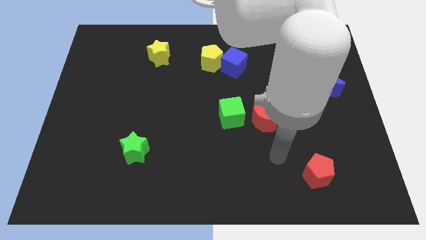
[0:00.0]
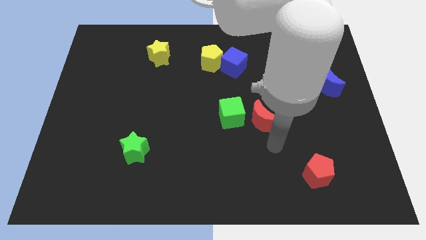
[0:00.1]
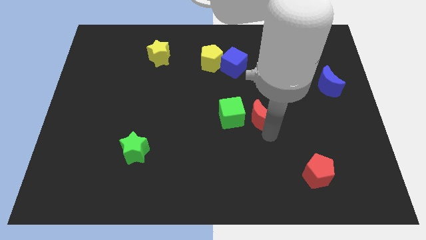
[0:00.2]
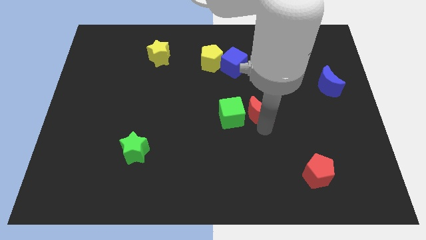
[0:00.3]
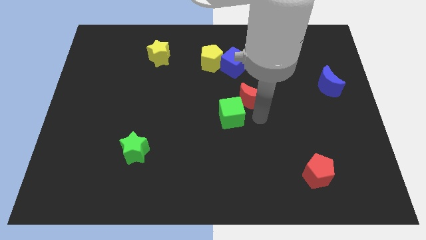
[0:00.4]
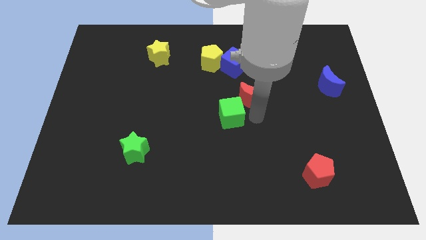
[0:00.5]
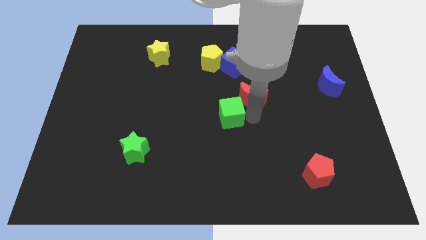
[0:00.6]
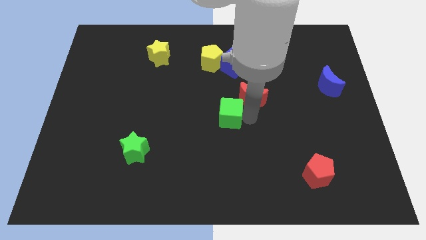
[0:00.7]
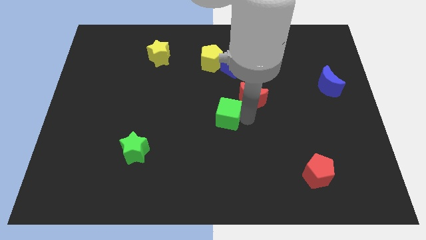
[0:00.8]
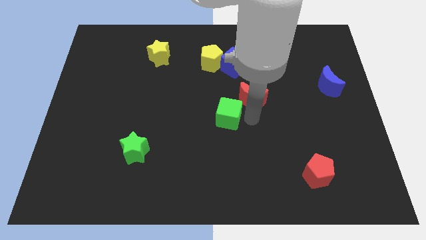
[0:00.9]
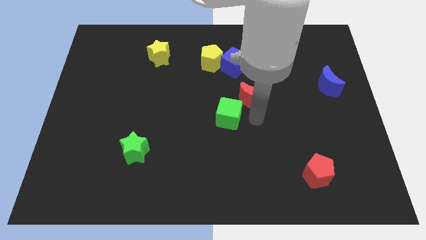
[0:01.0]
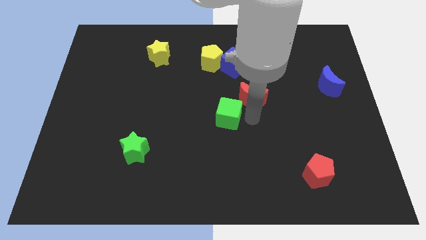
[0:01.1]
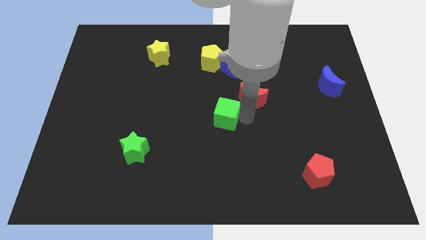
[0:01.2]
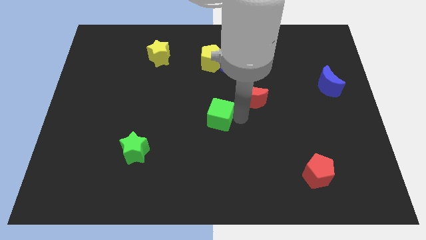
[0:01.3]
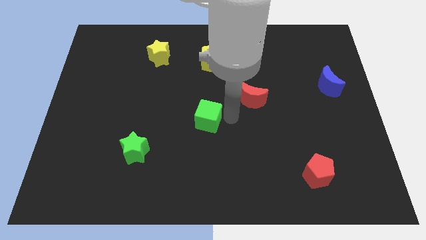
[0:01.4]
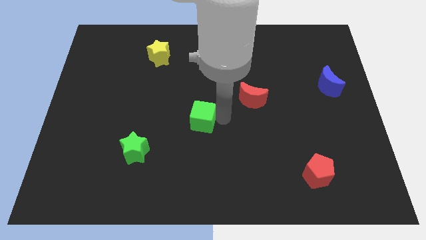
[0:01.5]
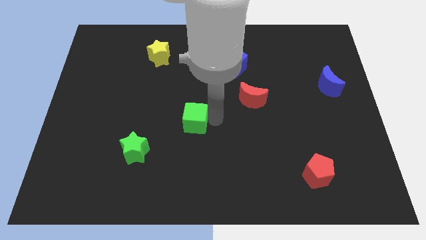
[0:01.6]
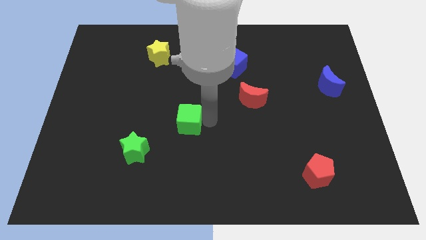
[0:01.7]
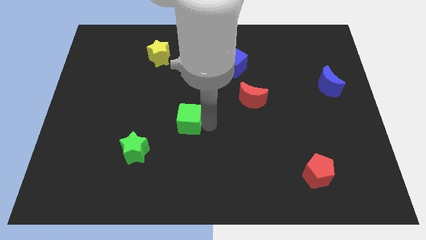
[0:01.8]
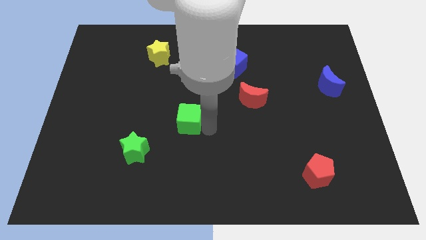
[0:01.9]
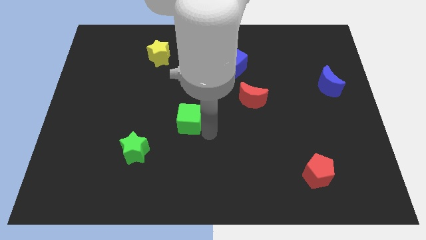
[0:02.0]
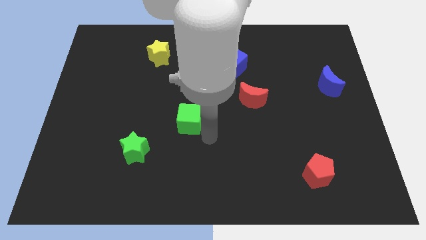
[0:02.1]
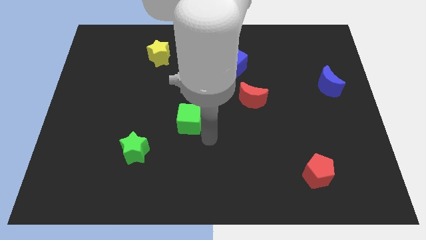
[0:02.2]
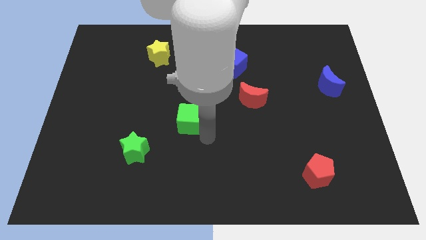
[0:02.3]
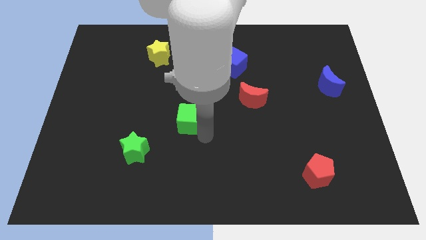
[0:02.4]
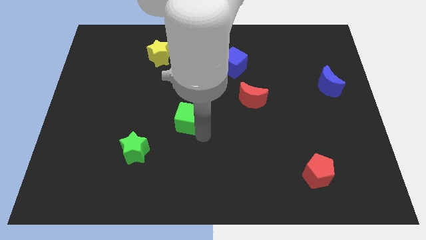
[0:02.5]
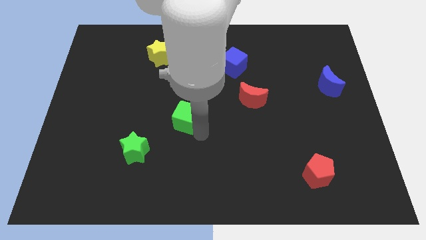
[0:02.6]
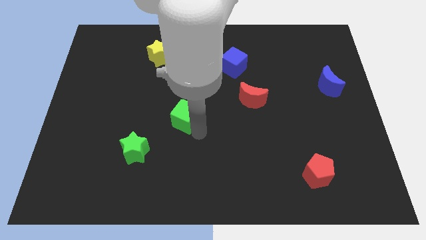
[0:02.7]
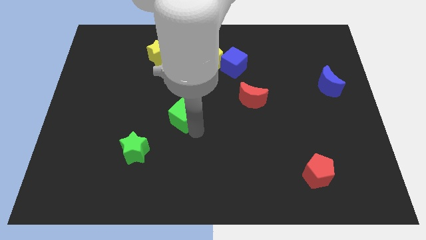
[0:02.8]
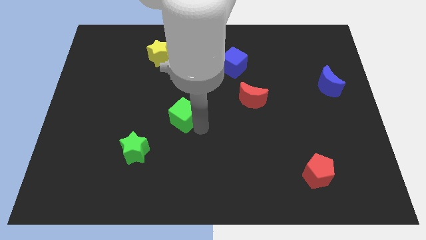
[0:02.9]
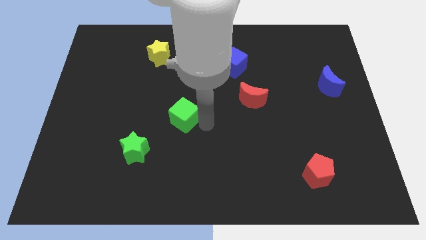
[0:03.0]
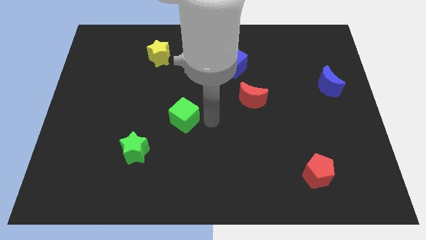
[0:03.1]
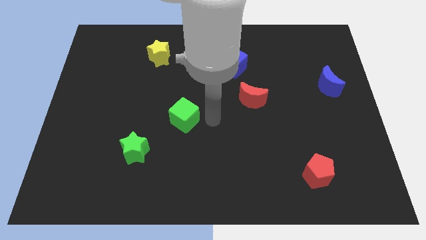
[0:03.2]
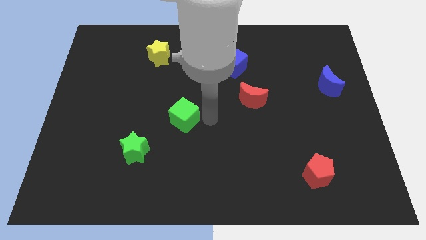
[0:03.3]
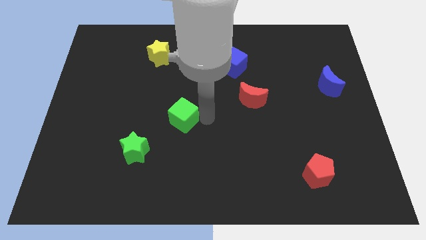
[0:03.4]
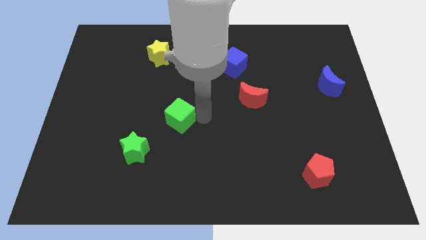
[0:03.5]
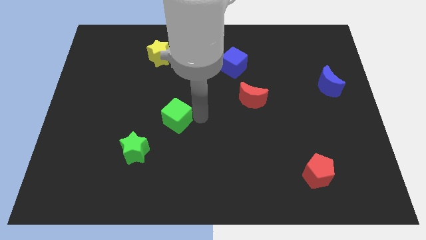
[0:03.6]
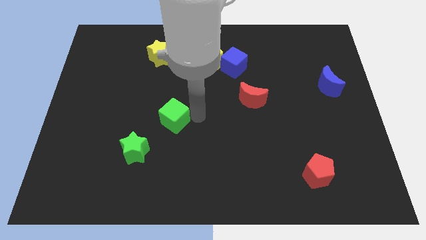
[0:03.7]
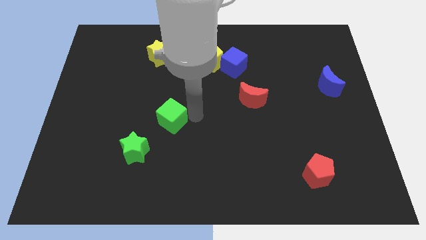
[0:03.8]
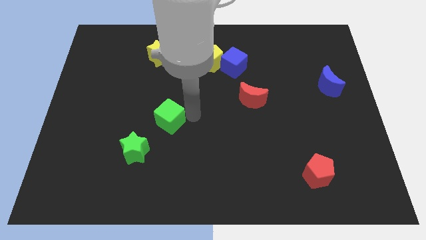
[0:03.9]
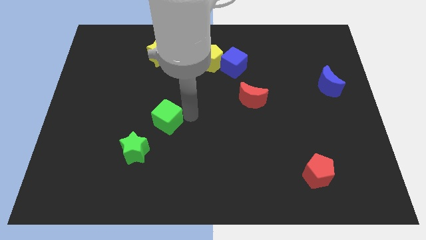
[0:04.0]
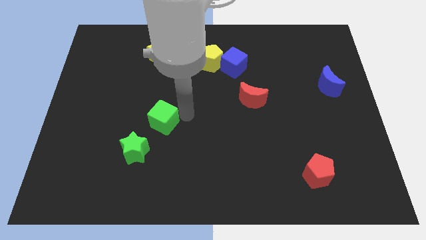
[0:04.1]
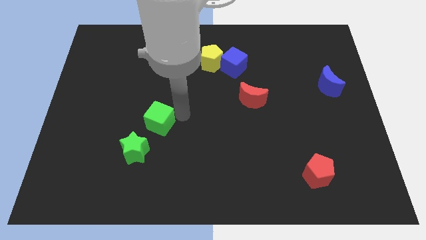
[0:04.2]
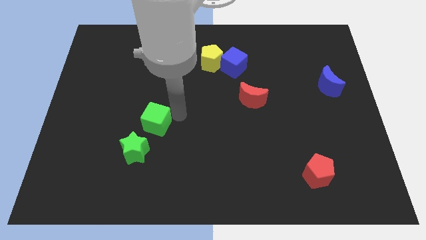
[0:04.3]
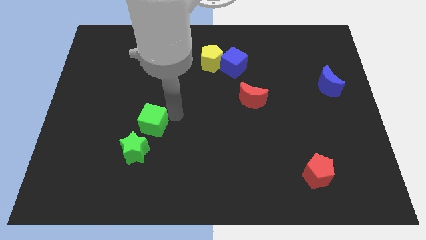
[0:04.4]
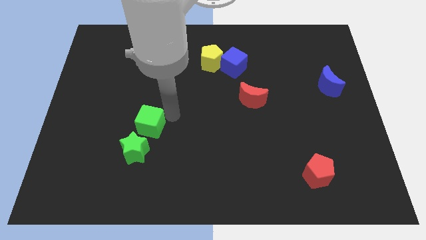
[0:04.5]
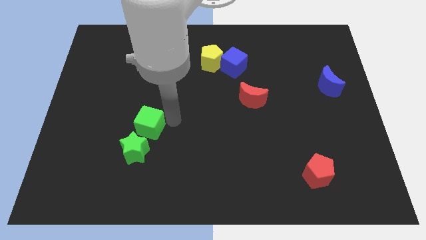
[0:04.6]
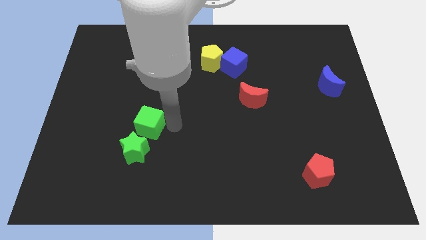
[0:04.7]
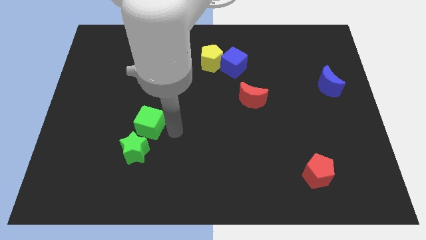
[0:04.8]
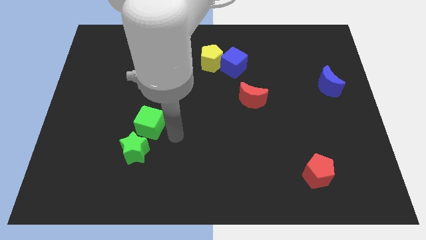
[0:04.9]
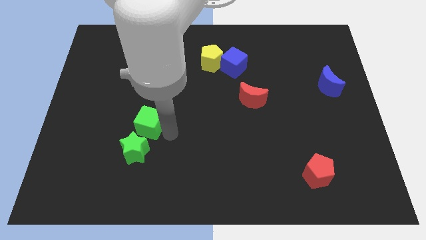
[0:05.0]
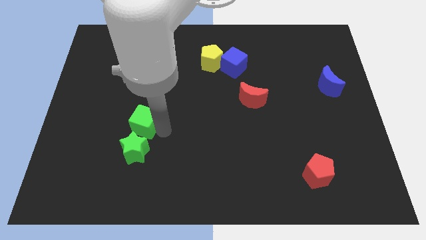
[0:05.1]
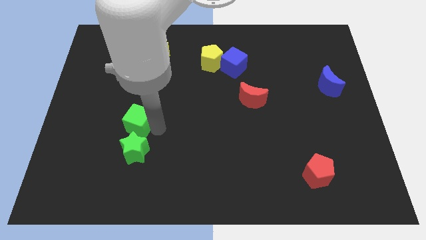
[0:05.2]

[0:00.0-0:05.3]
slide the green cube left

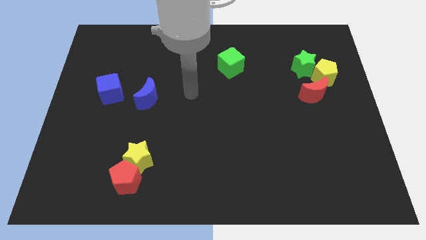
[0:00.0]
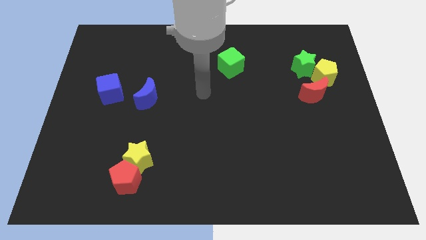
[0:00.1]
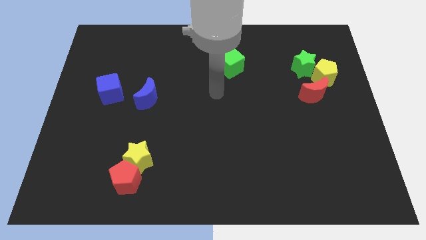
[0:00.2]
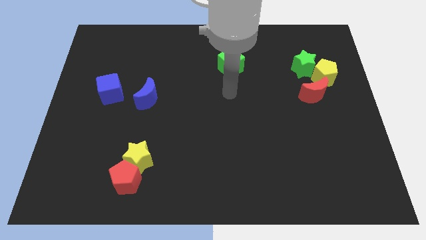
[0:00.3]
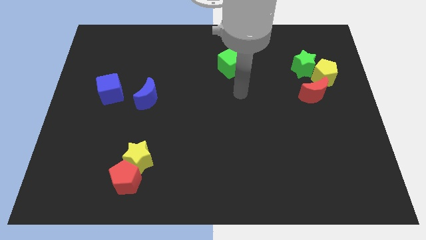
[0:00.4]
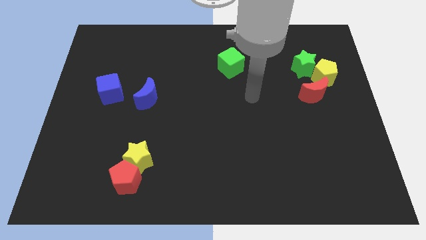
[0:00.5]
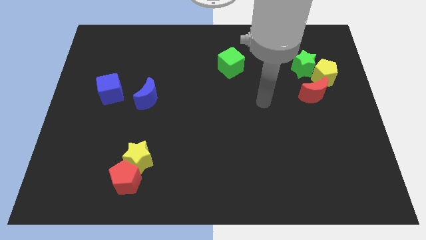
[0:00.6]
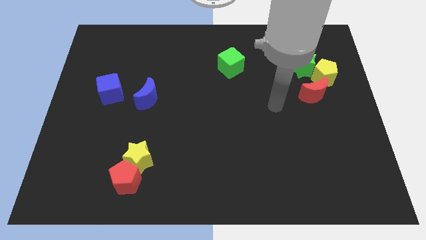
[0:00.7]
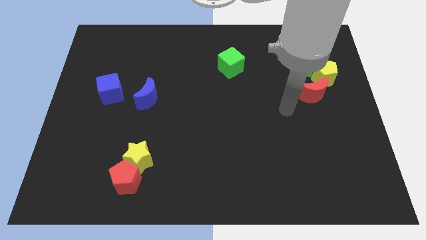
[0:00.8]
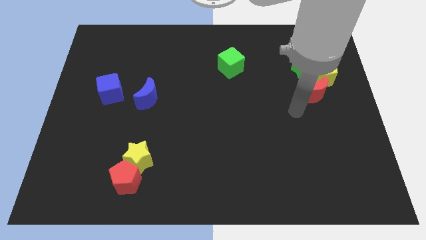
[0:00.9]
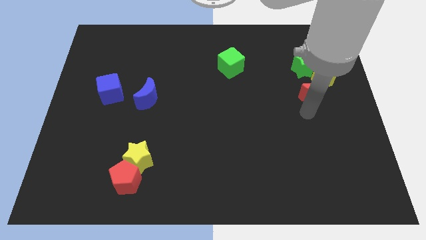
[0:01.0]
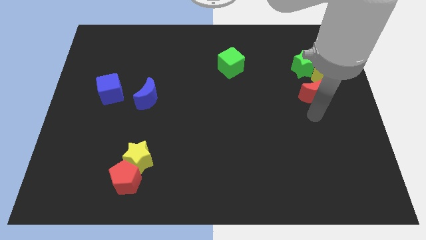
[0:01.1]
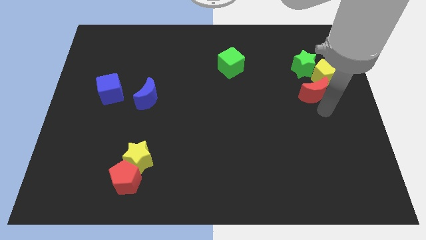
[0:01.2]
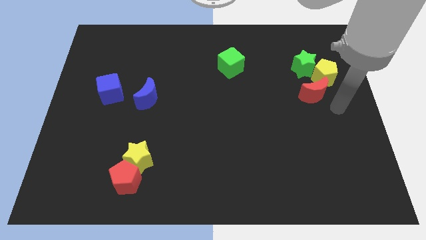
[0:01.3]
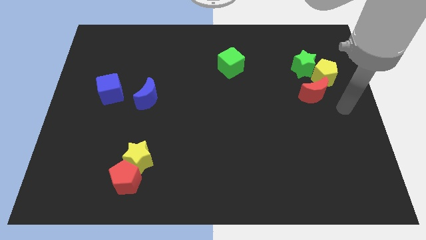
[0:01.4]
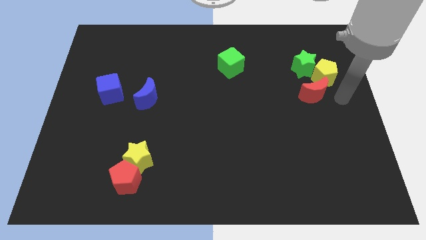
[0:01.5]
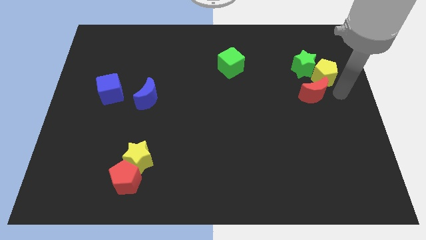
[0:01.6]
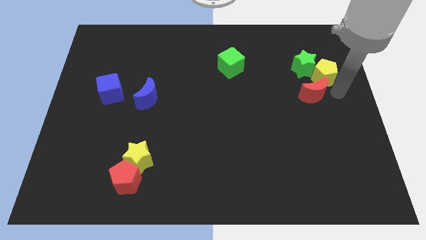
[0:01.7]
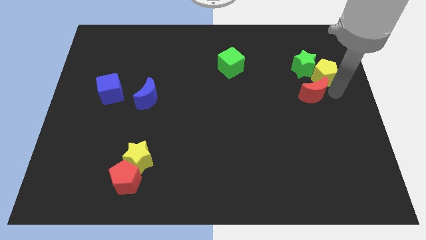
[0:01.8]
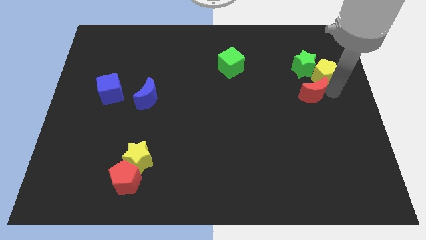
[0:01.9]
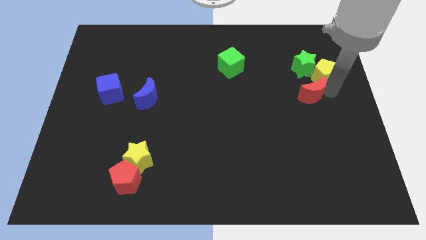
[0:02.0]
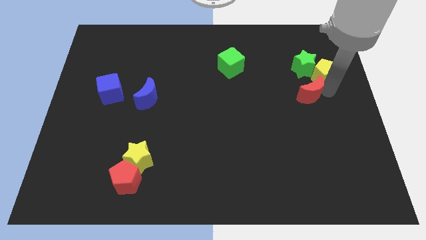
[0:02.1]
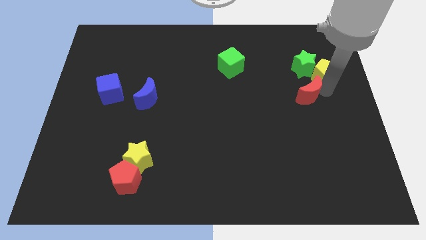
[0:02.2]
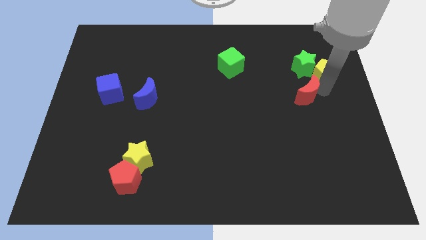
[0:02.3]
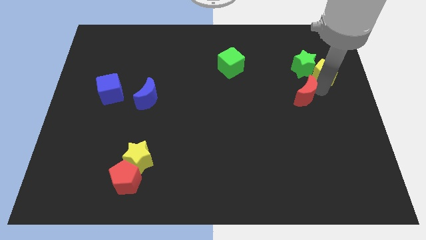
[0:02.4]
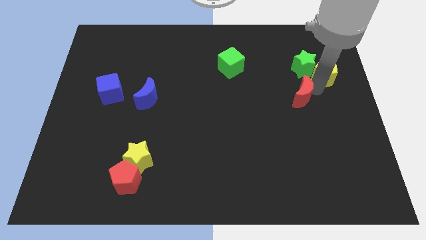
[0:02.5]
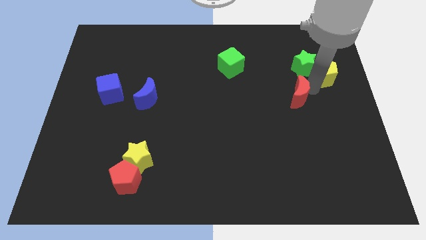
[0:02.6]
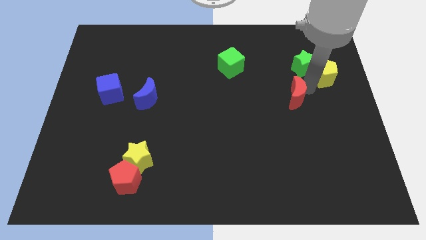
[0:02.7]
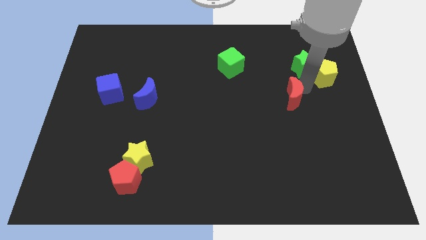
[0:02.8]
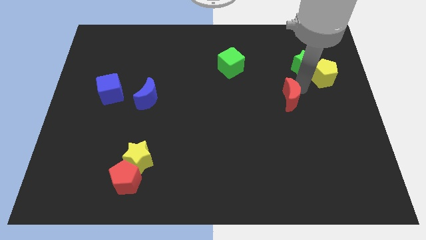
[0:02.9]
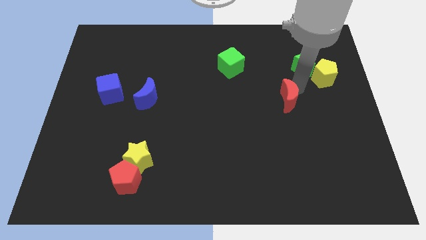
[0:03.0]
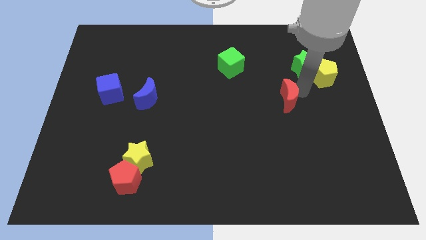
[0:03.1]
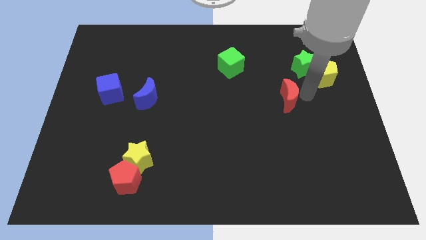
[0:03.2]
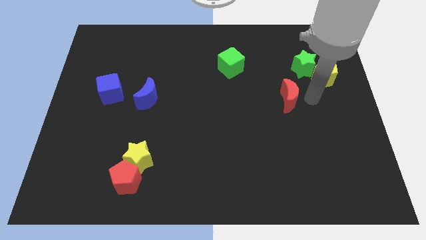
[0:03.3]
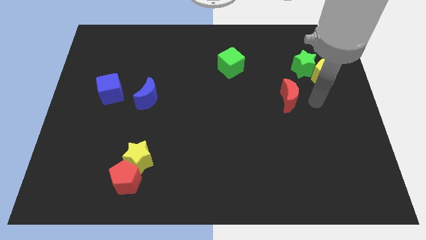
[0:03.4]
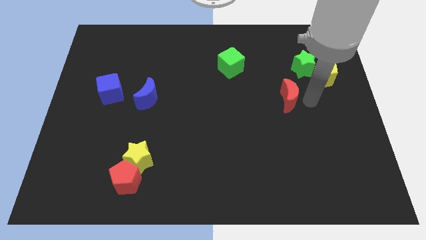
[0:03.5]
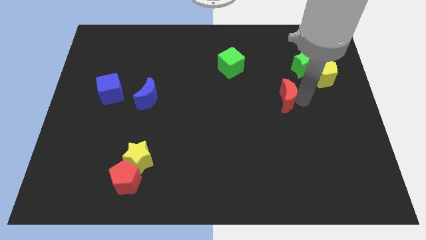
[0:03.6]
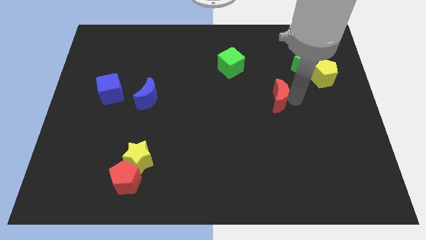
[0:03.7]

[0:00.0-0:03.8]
push the red moon somewhat to the left
